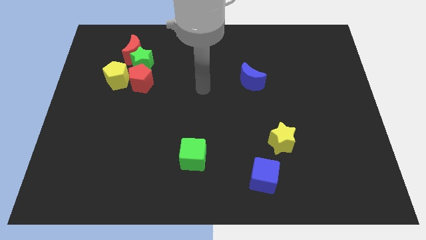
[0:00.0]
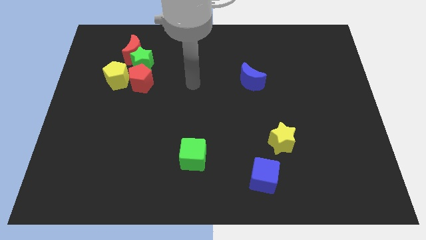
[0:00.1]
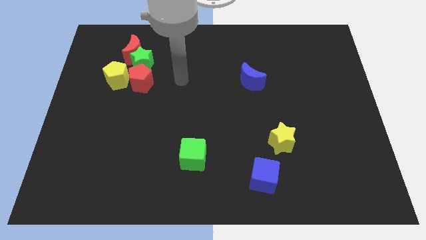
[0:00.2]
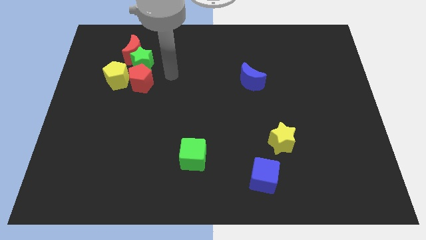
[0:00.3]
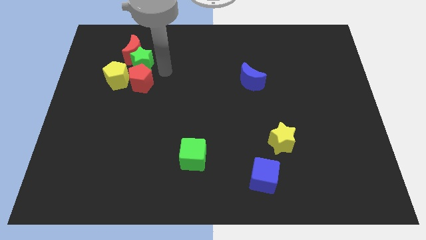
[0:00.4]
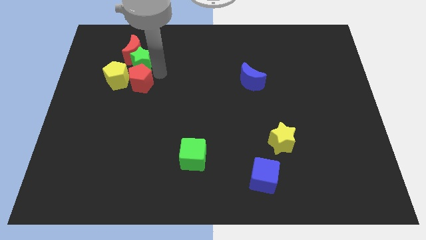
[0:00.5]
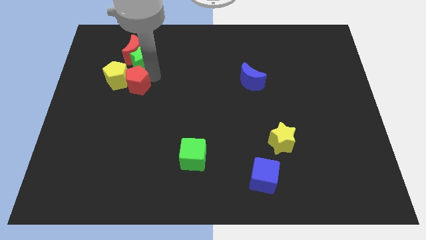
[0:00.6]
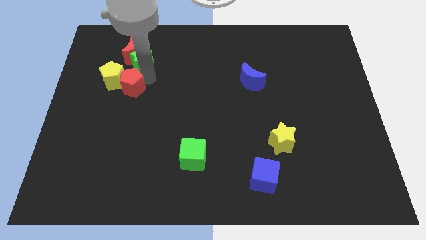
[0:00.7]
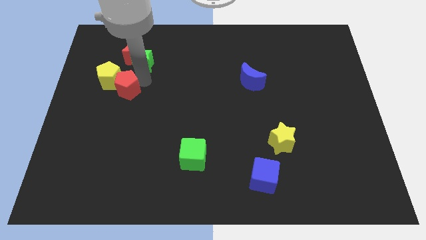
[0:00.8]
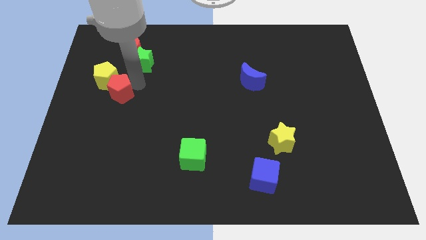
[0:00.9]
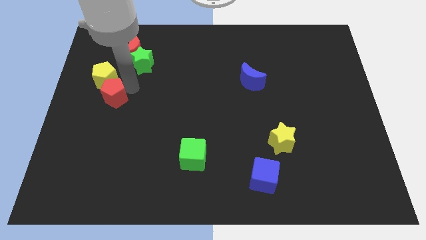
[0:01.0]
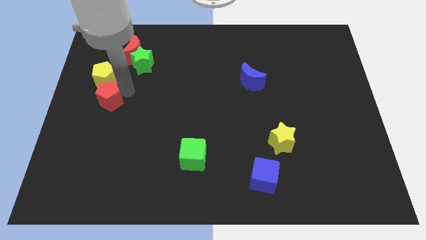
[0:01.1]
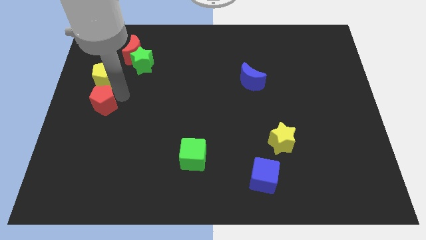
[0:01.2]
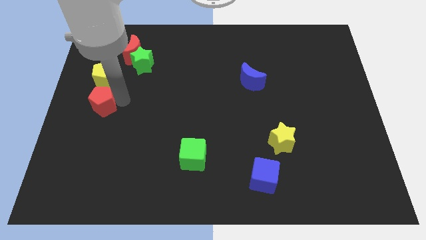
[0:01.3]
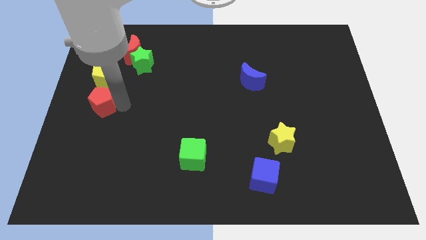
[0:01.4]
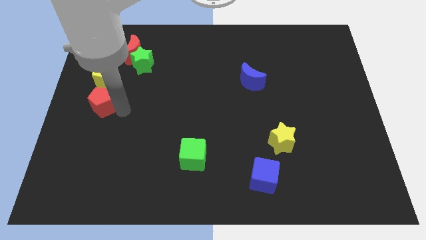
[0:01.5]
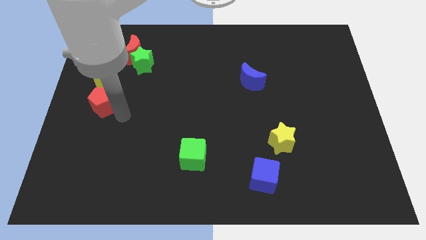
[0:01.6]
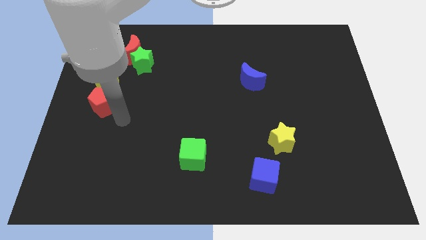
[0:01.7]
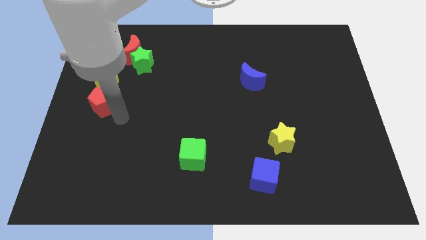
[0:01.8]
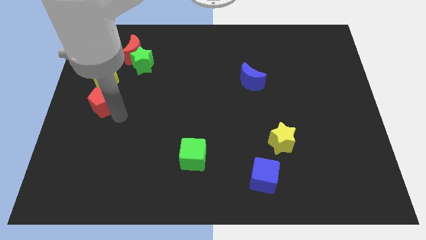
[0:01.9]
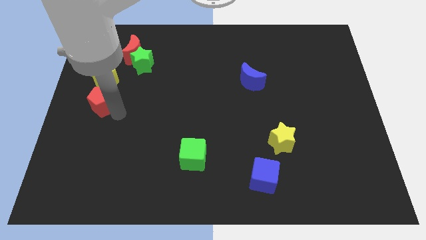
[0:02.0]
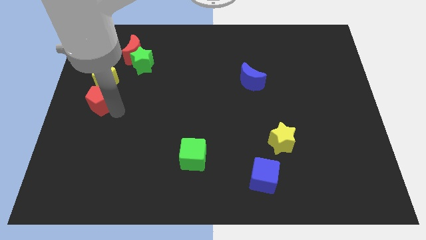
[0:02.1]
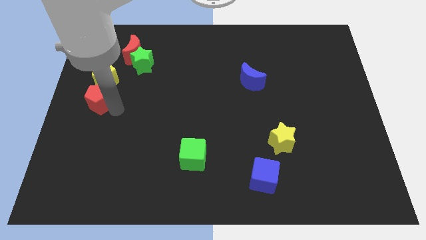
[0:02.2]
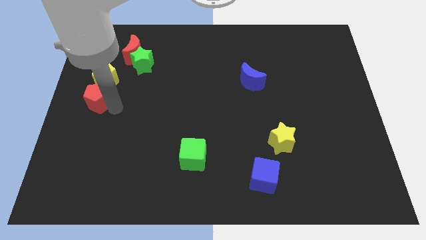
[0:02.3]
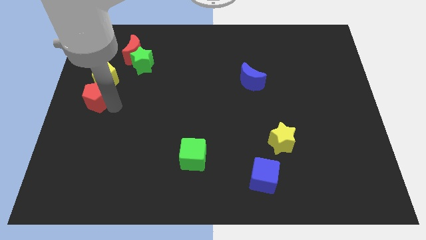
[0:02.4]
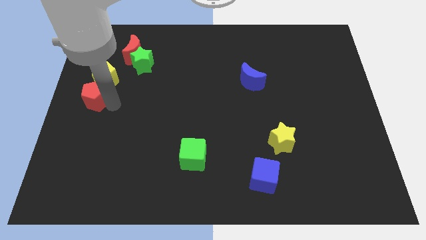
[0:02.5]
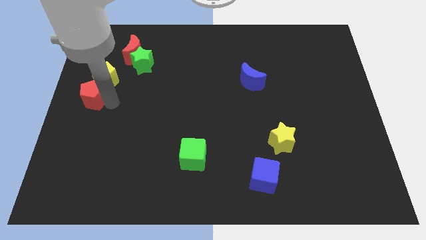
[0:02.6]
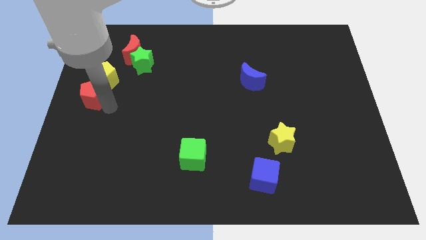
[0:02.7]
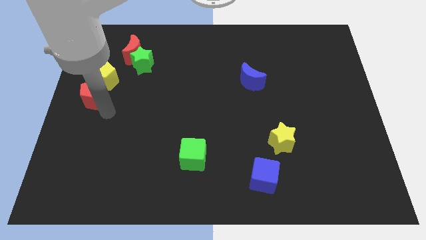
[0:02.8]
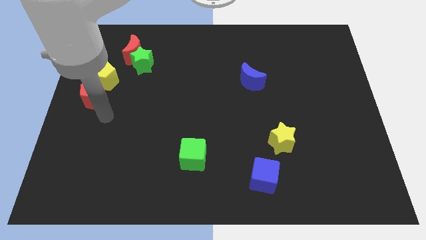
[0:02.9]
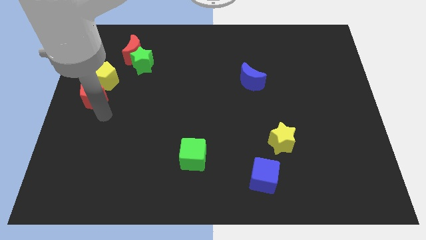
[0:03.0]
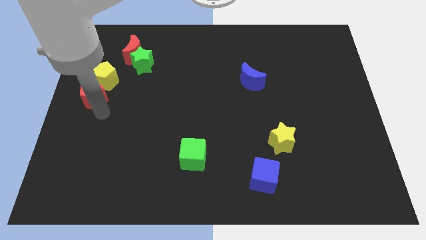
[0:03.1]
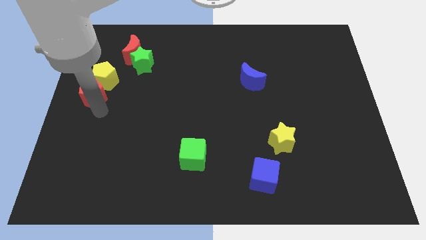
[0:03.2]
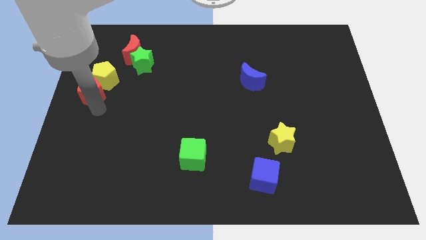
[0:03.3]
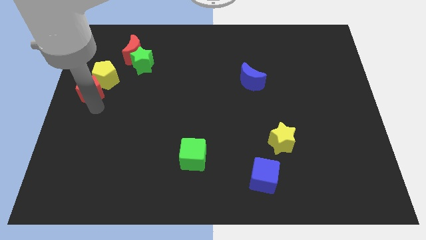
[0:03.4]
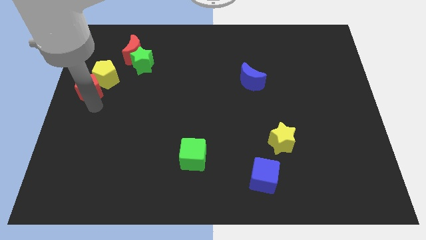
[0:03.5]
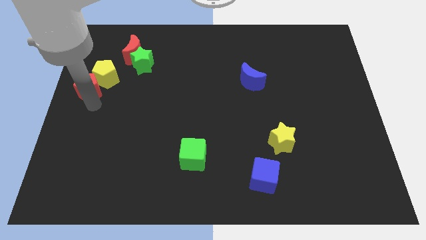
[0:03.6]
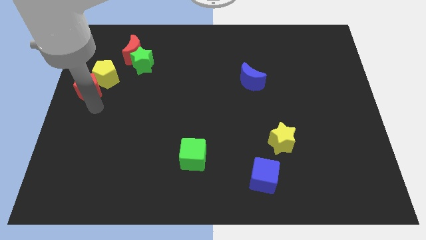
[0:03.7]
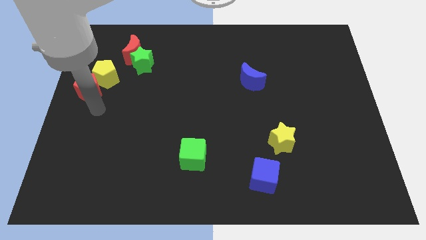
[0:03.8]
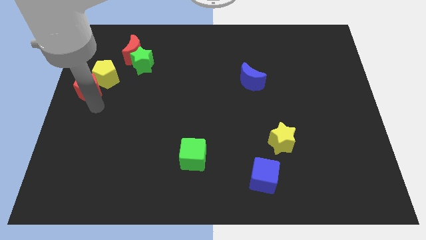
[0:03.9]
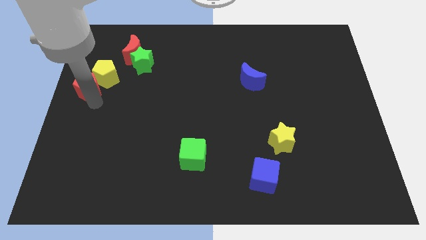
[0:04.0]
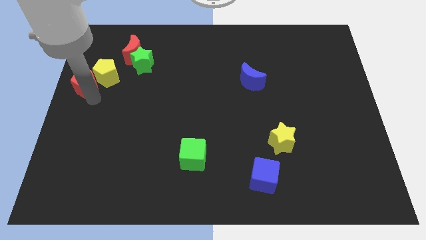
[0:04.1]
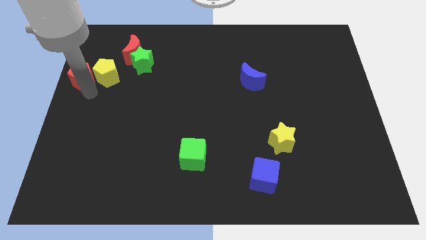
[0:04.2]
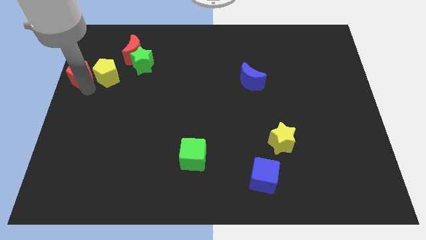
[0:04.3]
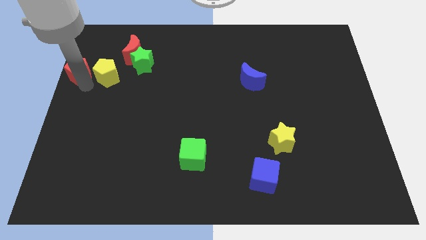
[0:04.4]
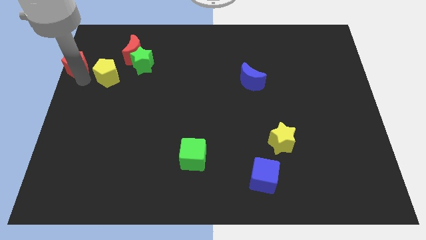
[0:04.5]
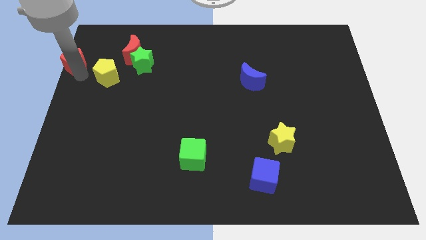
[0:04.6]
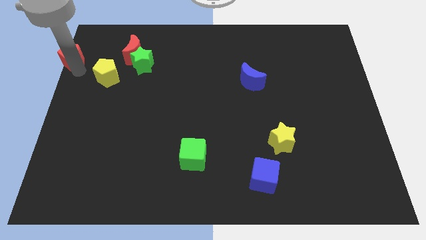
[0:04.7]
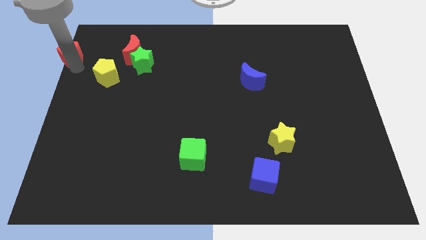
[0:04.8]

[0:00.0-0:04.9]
move the red pentagon to the top left corner

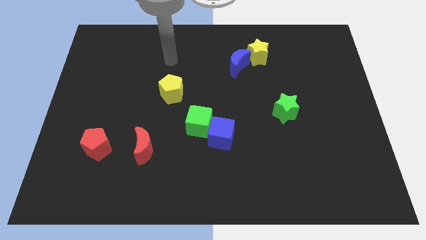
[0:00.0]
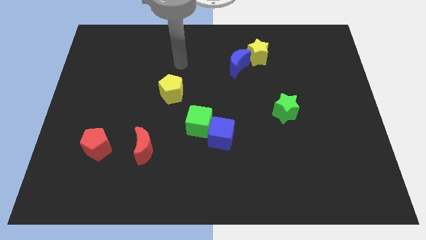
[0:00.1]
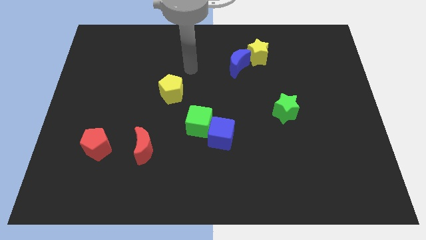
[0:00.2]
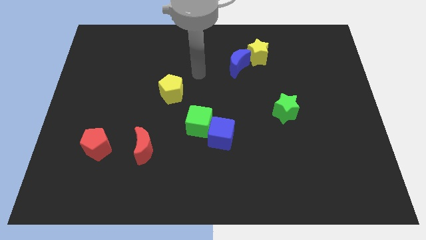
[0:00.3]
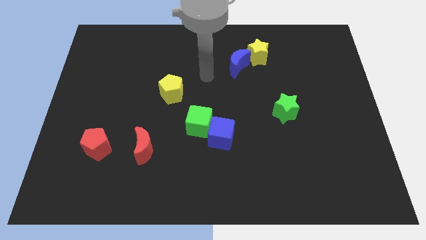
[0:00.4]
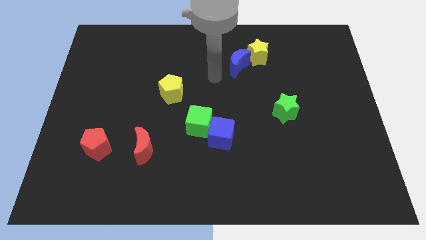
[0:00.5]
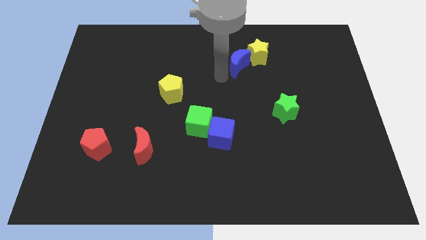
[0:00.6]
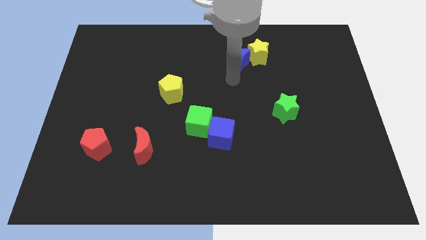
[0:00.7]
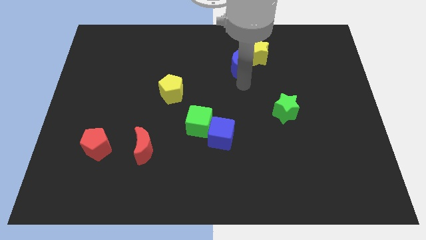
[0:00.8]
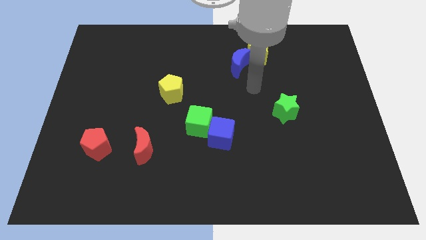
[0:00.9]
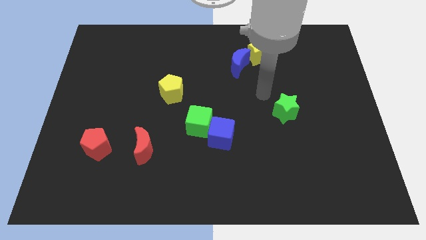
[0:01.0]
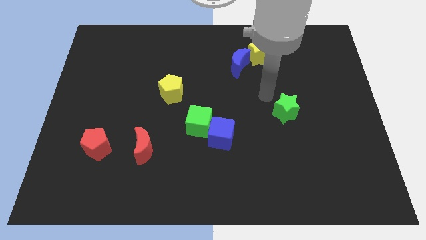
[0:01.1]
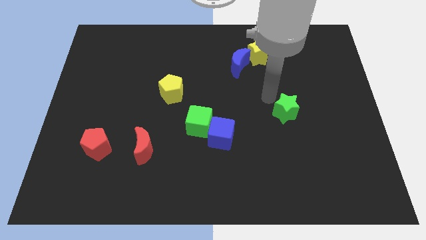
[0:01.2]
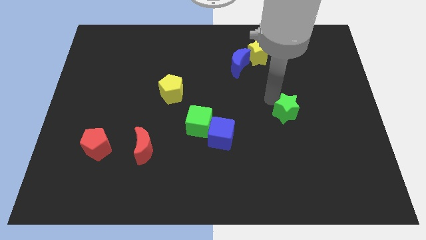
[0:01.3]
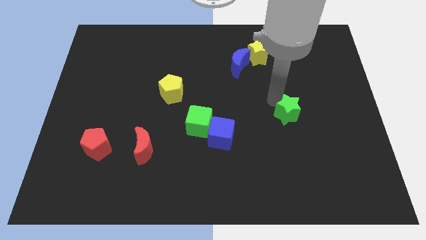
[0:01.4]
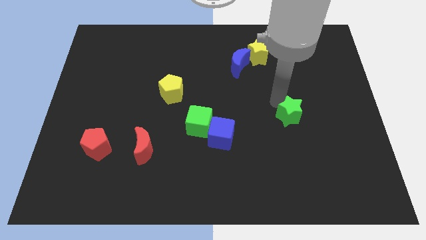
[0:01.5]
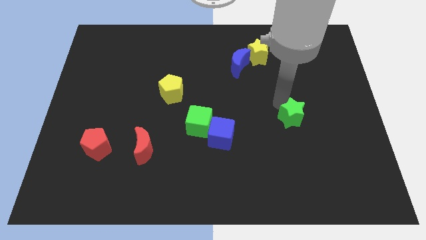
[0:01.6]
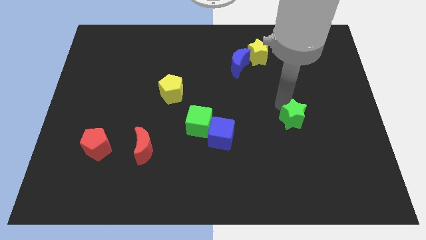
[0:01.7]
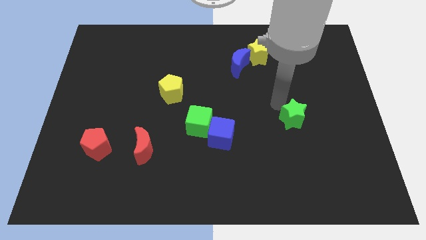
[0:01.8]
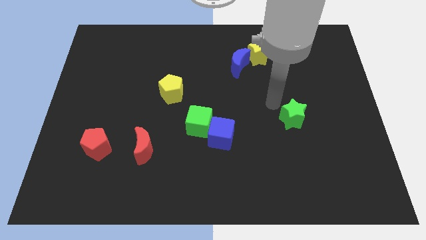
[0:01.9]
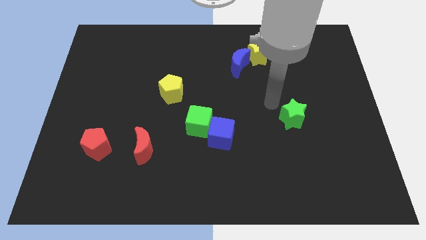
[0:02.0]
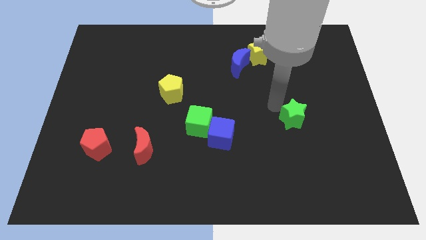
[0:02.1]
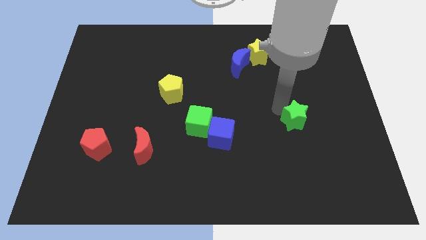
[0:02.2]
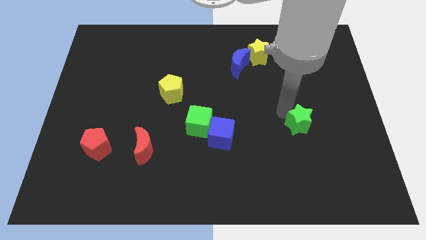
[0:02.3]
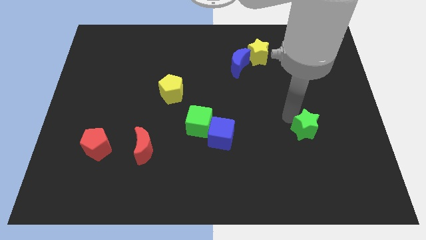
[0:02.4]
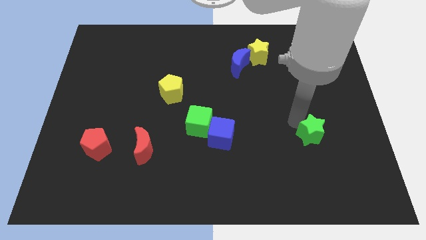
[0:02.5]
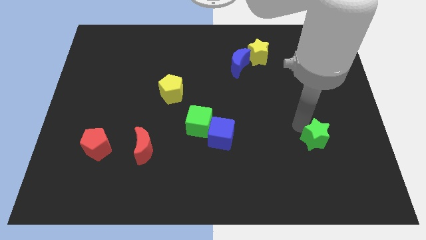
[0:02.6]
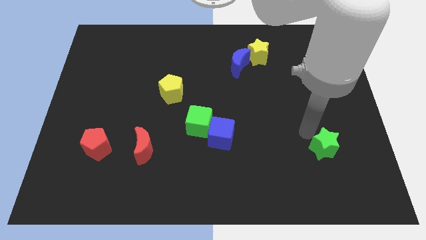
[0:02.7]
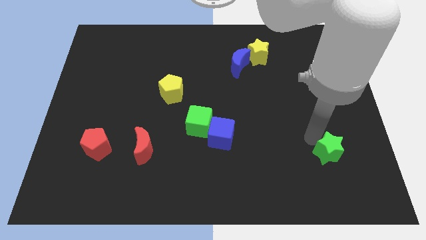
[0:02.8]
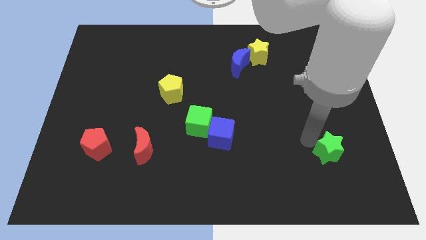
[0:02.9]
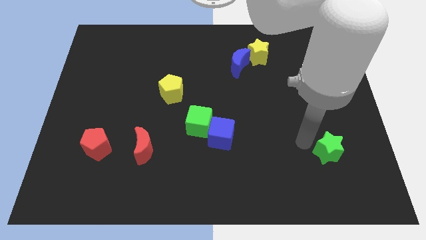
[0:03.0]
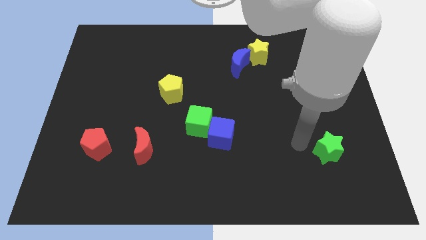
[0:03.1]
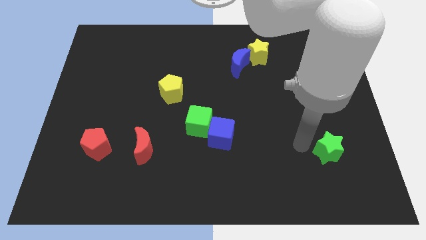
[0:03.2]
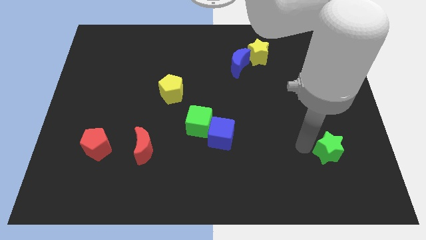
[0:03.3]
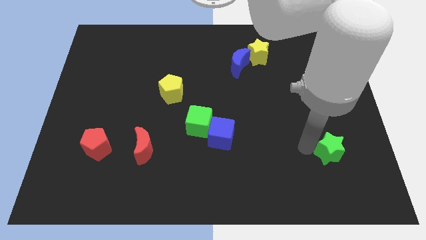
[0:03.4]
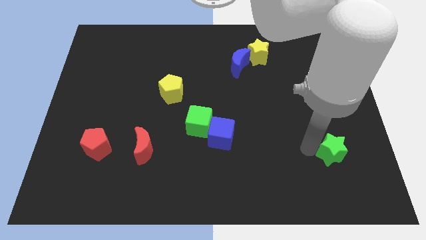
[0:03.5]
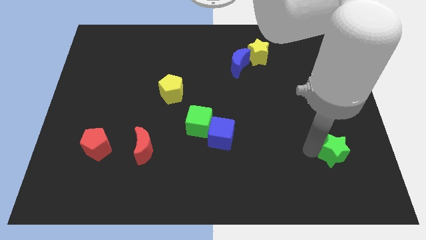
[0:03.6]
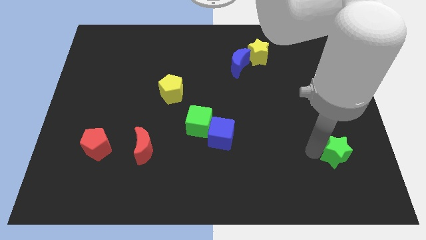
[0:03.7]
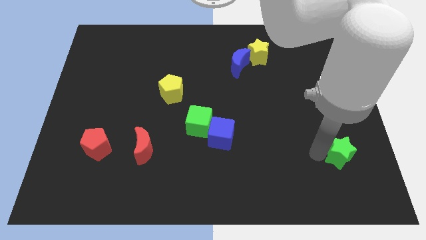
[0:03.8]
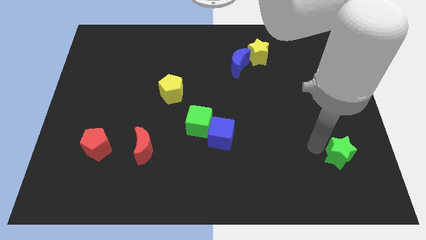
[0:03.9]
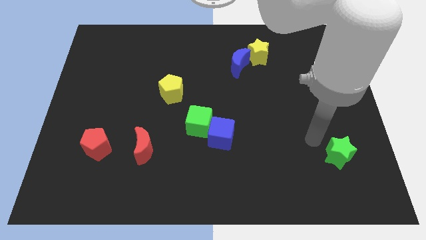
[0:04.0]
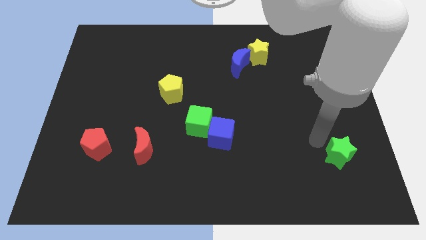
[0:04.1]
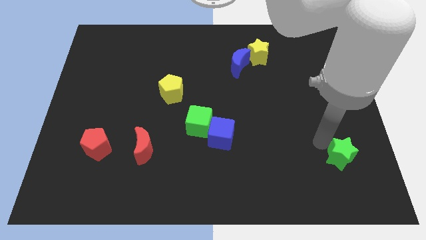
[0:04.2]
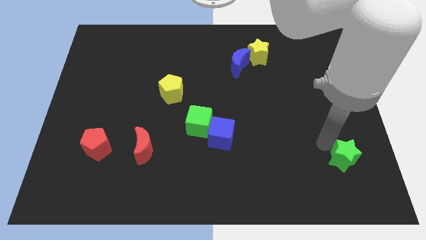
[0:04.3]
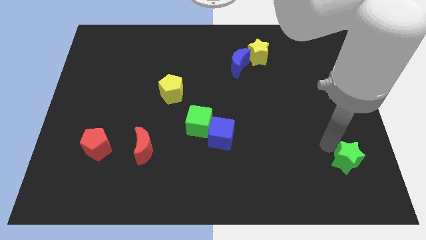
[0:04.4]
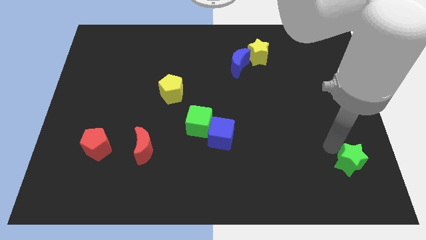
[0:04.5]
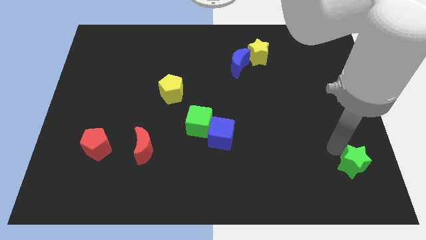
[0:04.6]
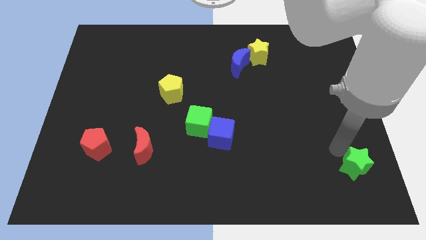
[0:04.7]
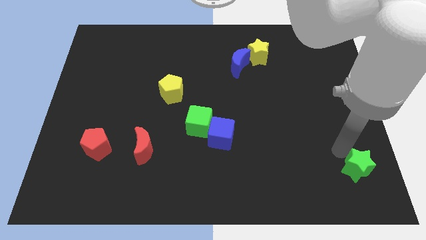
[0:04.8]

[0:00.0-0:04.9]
move the green star to the bottom right of the board
